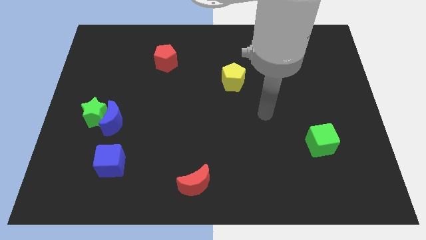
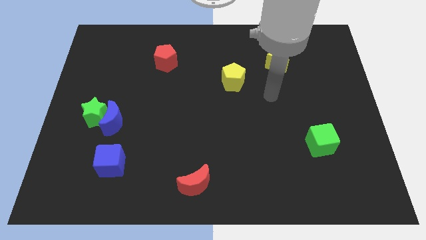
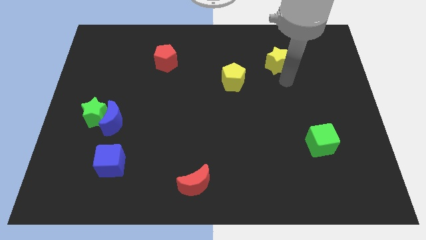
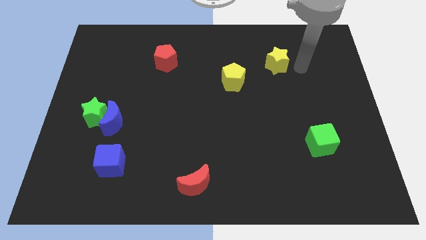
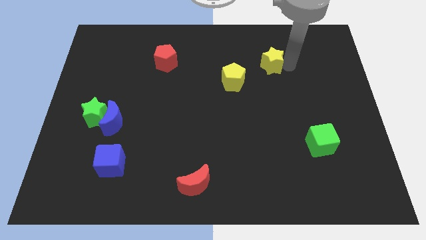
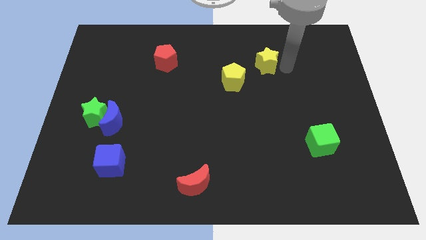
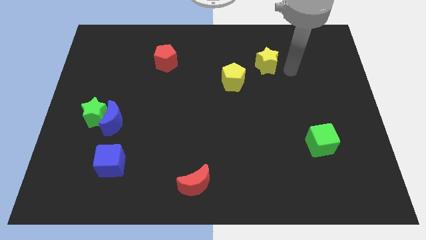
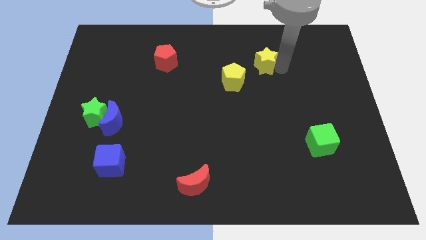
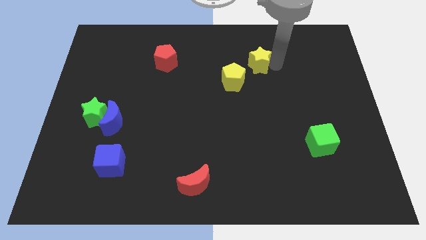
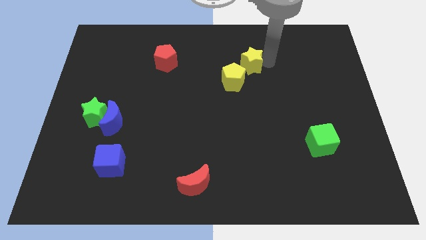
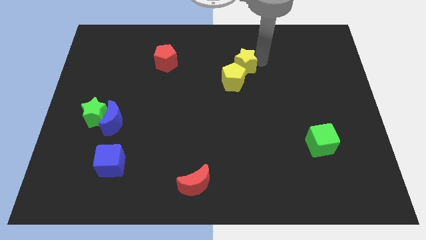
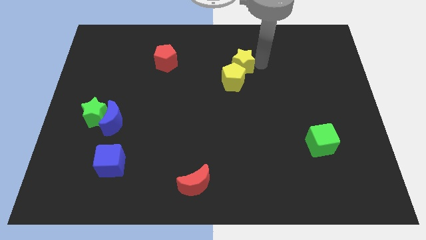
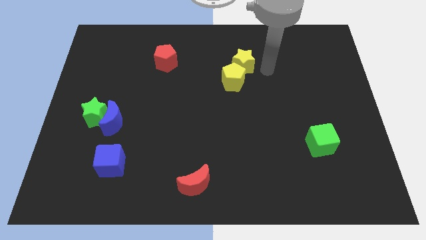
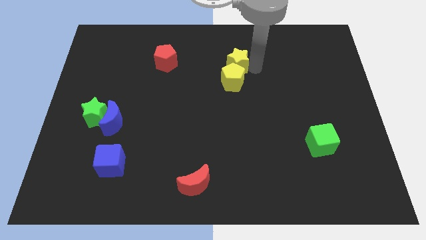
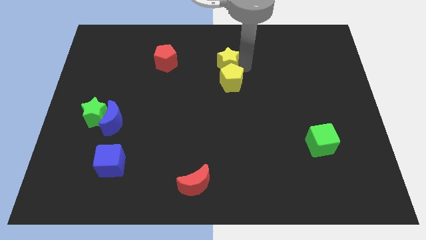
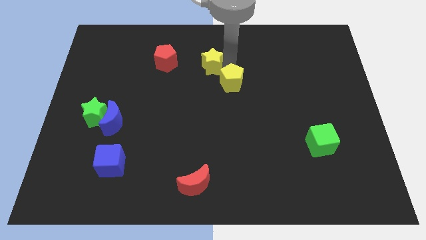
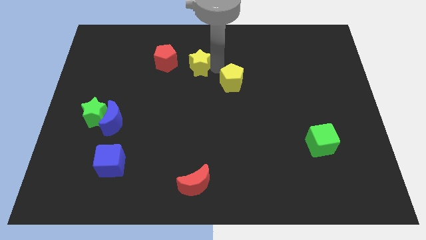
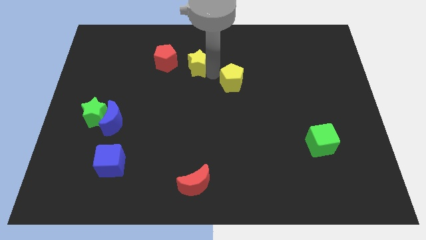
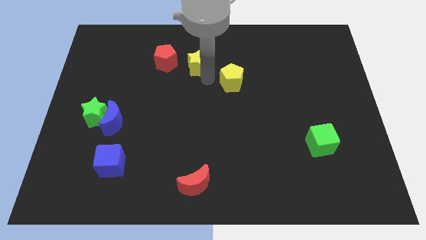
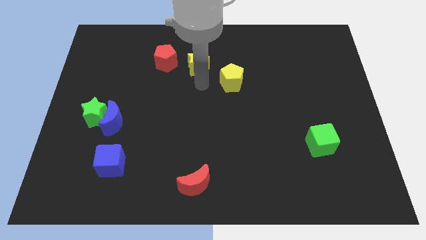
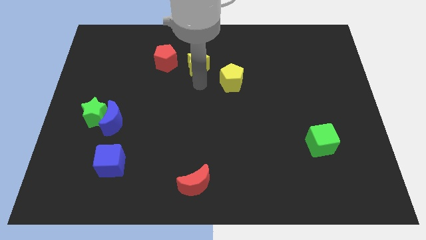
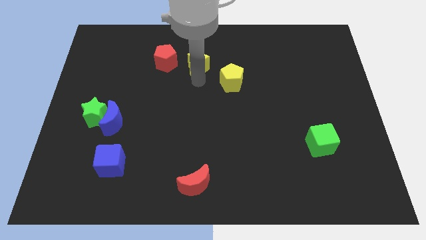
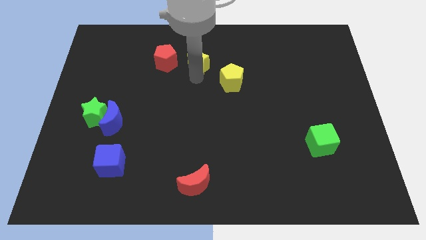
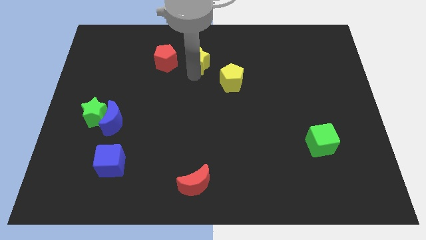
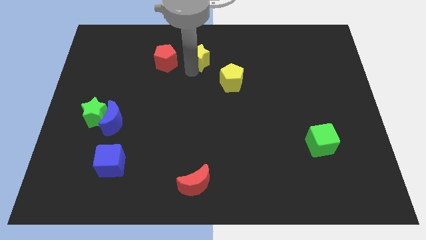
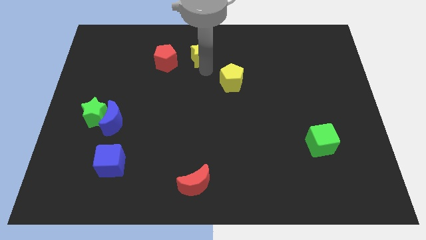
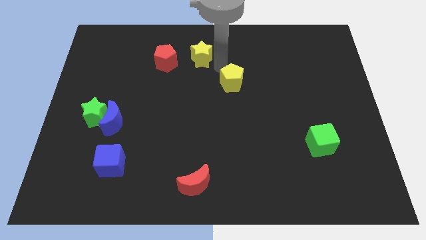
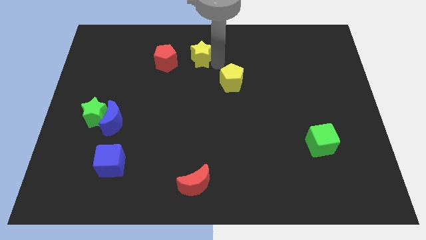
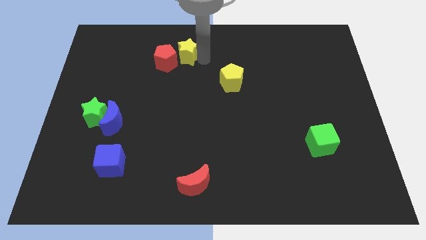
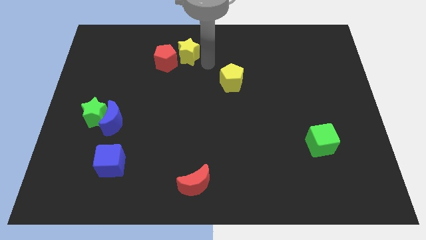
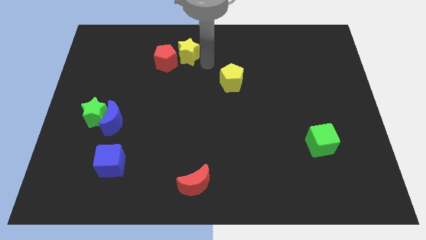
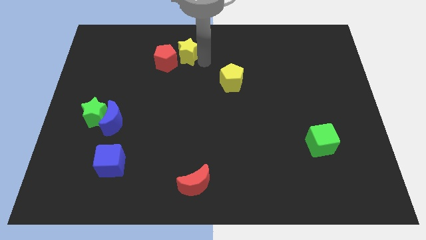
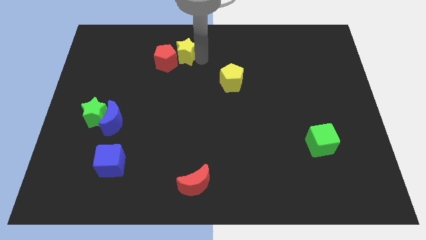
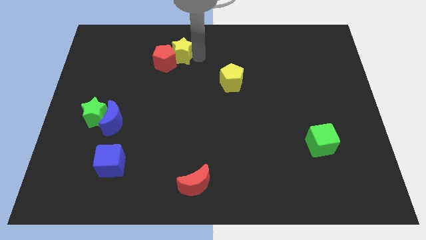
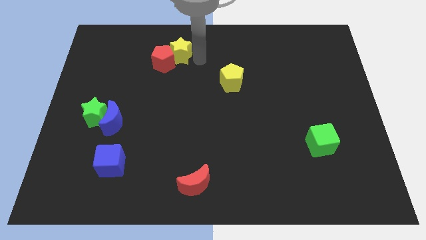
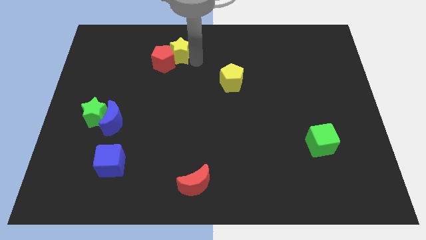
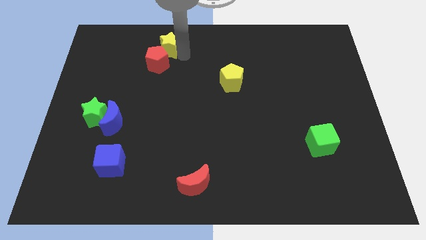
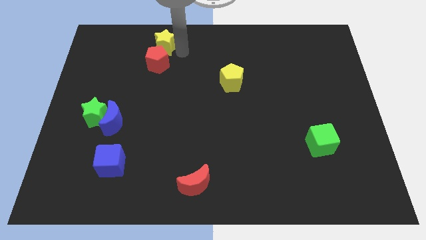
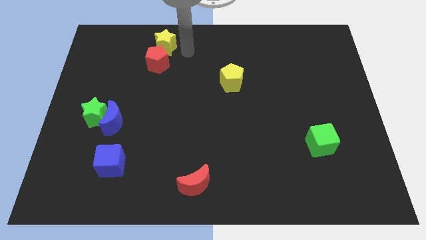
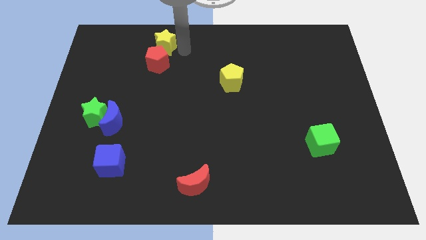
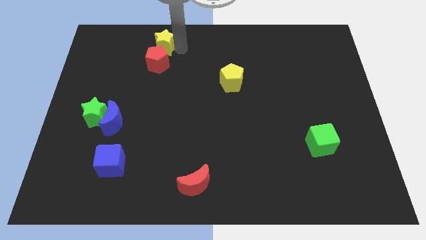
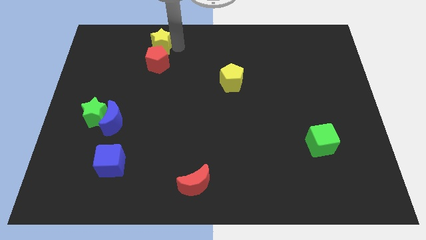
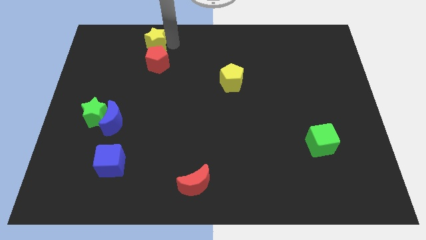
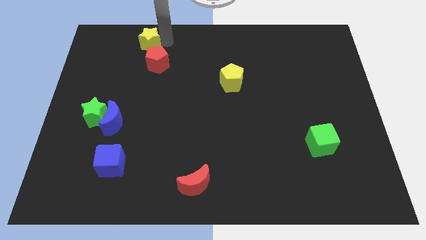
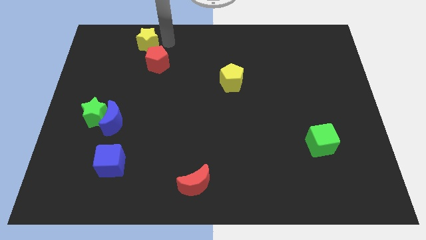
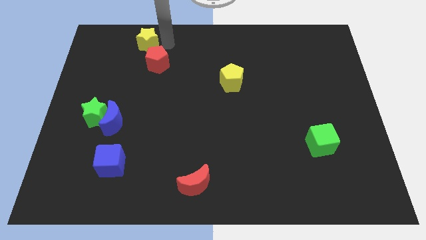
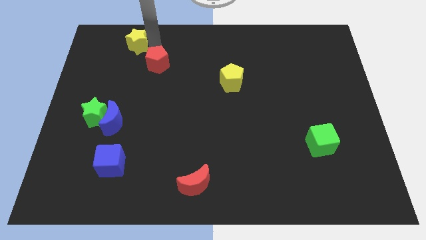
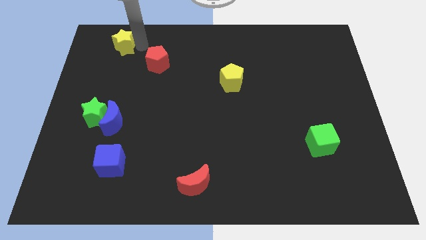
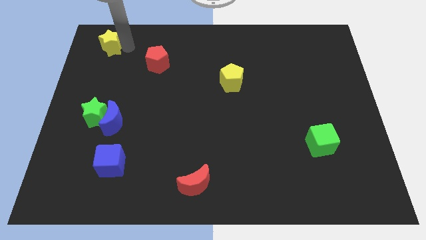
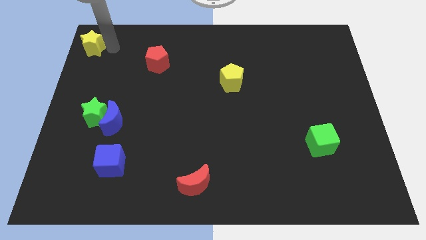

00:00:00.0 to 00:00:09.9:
push the yellow star to the upper left corner
